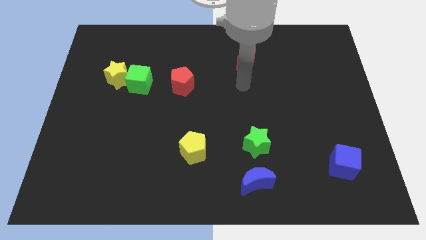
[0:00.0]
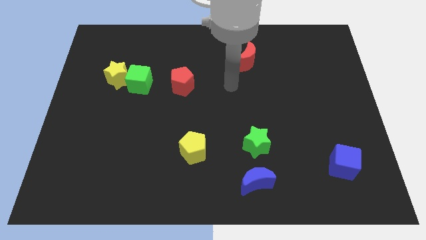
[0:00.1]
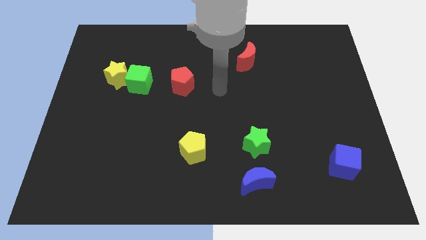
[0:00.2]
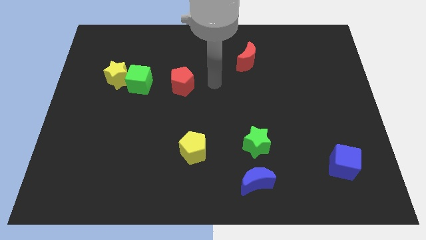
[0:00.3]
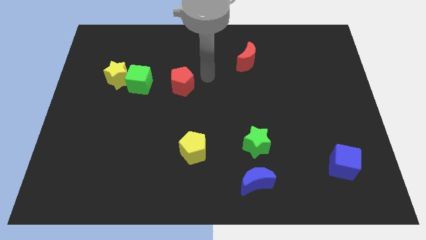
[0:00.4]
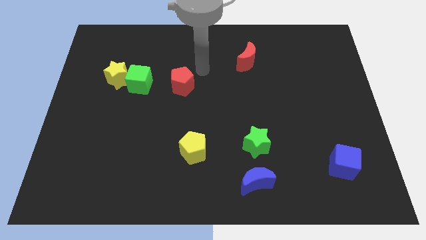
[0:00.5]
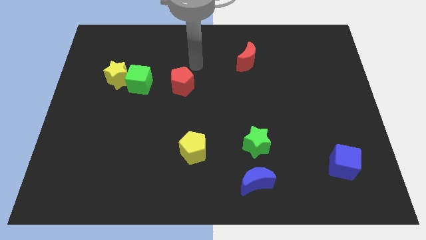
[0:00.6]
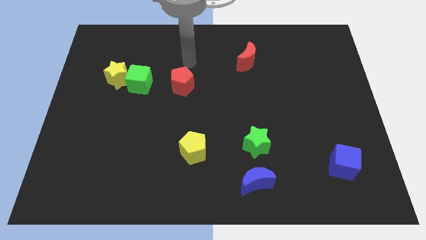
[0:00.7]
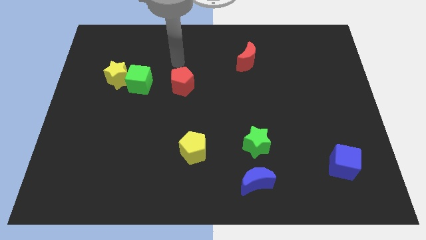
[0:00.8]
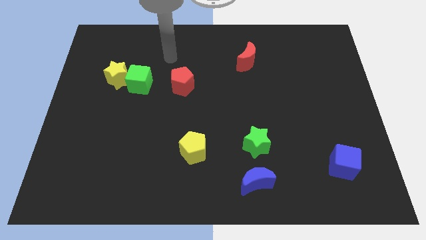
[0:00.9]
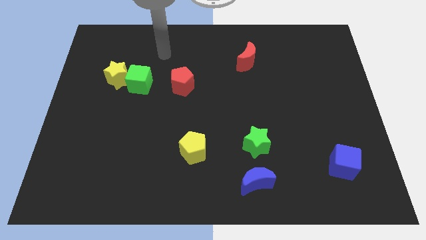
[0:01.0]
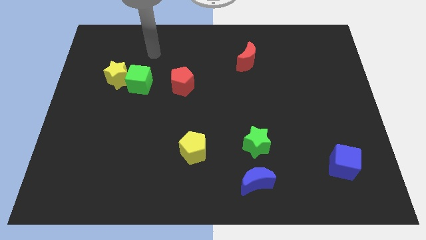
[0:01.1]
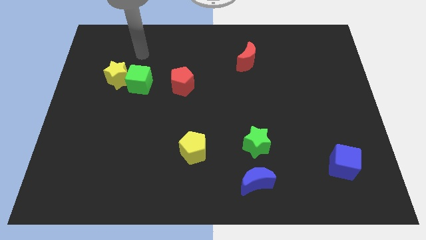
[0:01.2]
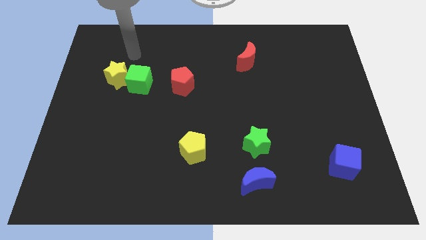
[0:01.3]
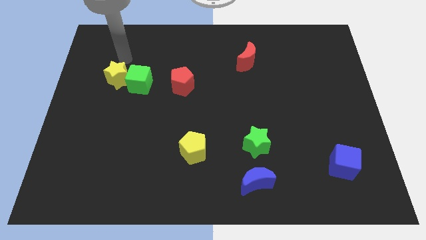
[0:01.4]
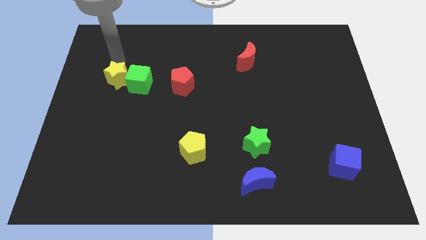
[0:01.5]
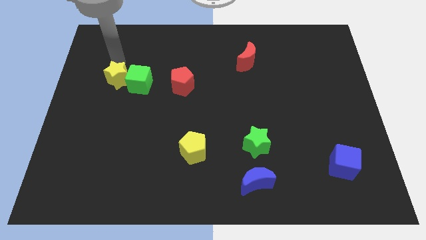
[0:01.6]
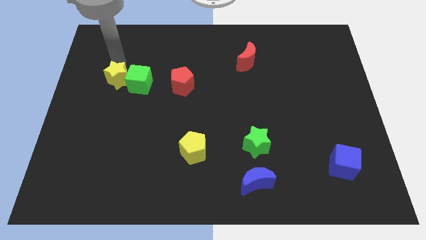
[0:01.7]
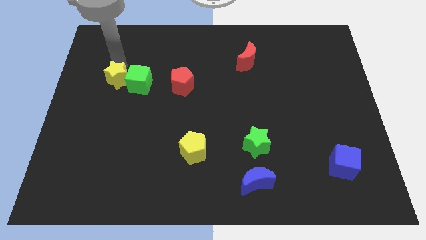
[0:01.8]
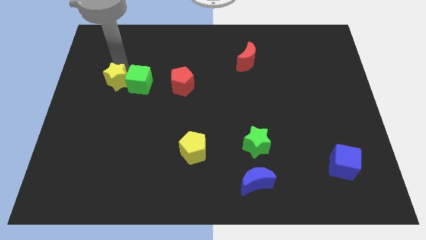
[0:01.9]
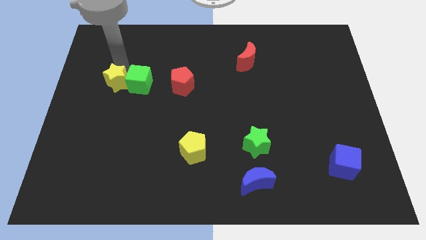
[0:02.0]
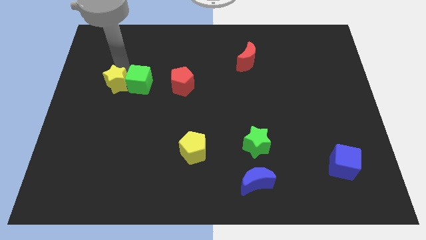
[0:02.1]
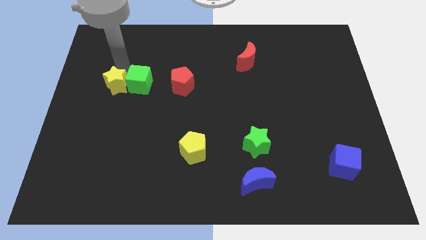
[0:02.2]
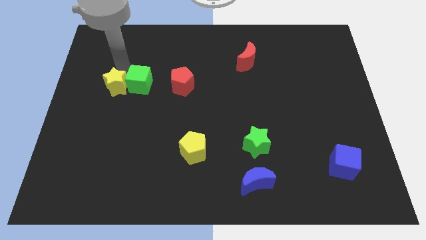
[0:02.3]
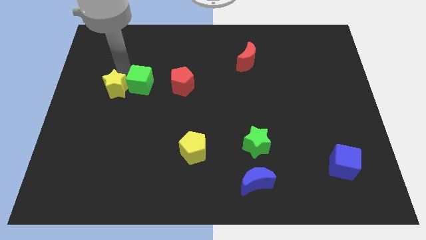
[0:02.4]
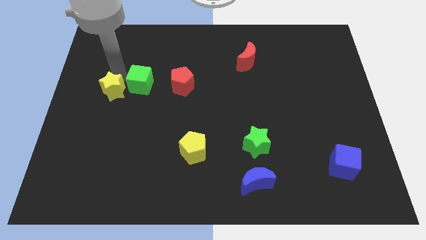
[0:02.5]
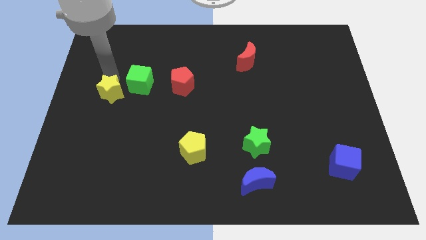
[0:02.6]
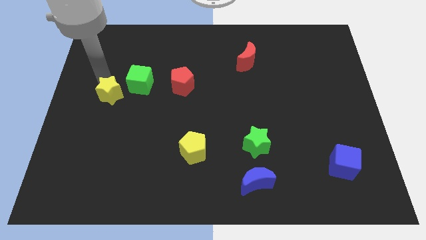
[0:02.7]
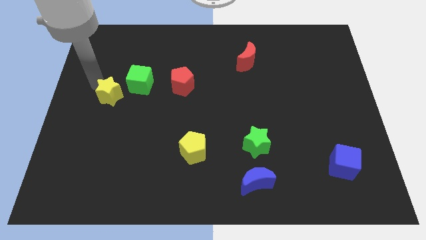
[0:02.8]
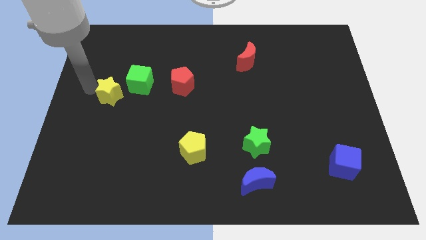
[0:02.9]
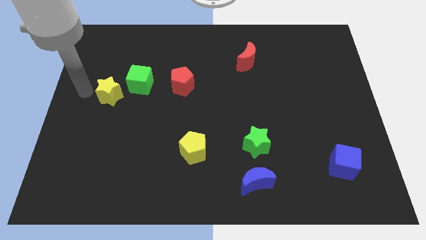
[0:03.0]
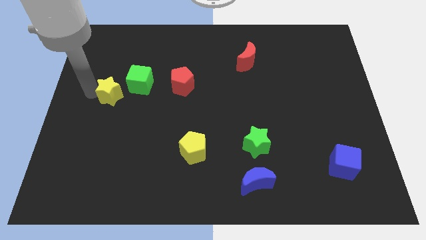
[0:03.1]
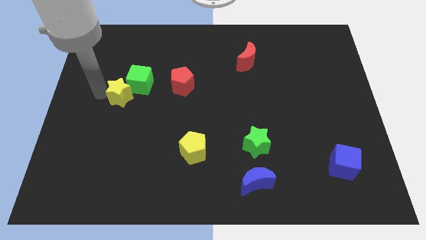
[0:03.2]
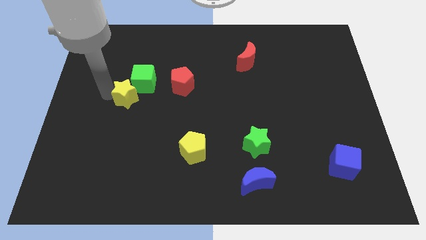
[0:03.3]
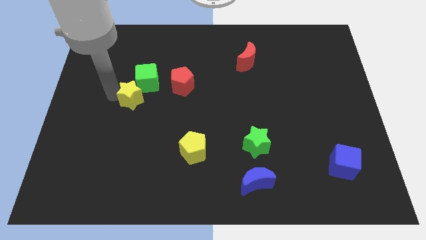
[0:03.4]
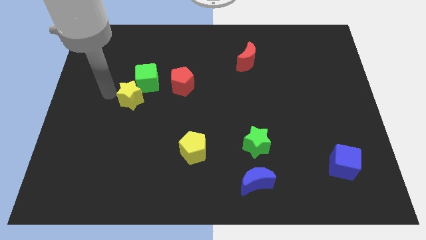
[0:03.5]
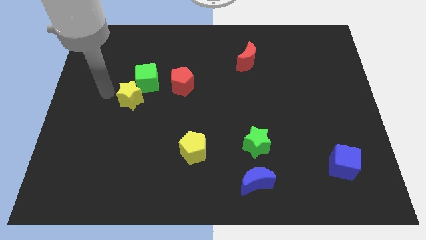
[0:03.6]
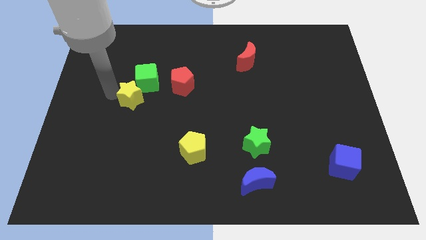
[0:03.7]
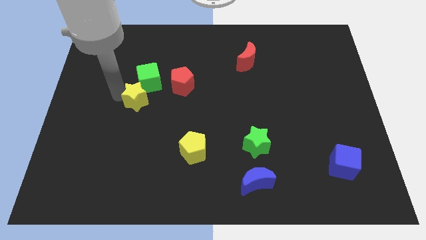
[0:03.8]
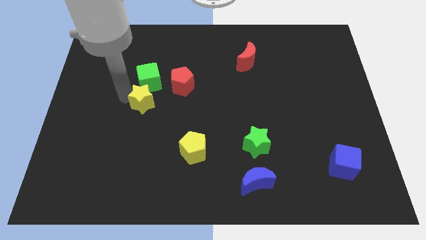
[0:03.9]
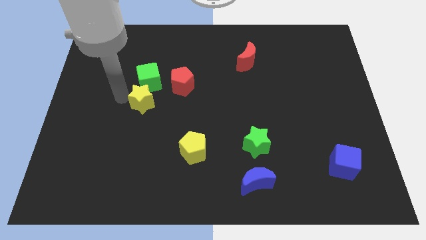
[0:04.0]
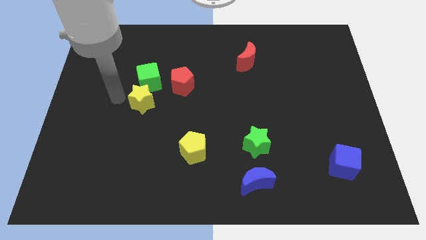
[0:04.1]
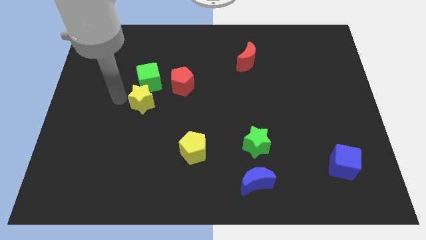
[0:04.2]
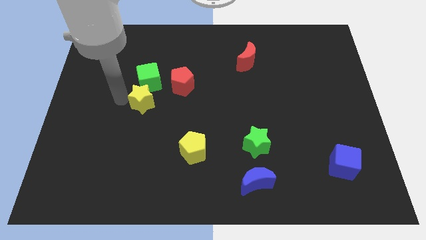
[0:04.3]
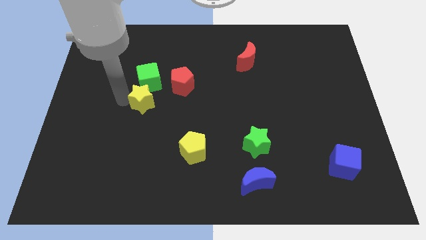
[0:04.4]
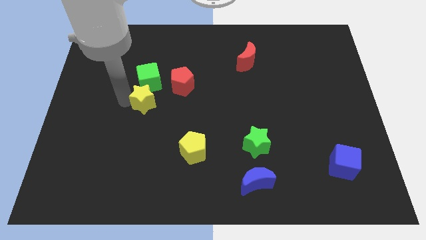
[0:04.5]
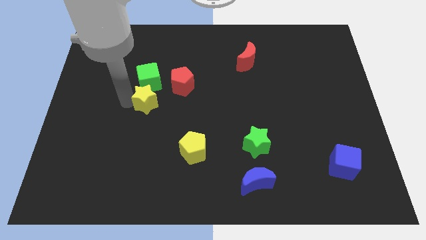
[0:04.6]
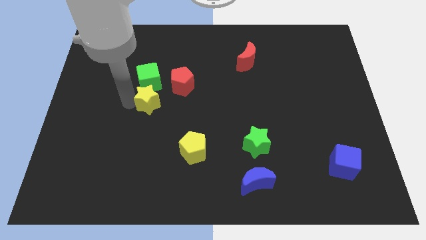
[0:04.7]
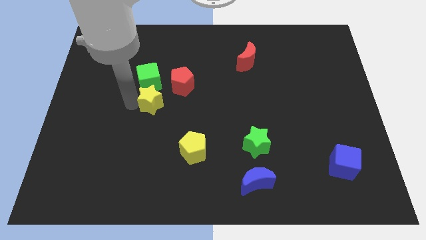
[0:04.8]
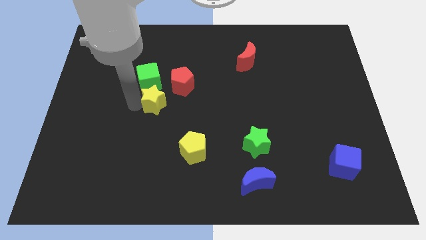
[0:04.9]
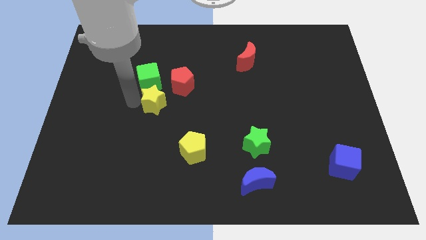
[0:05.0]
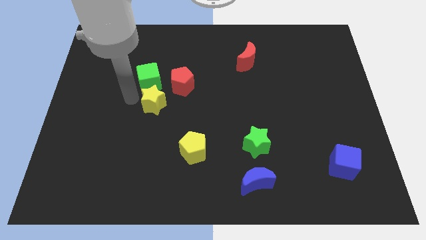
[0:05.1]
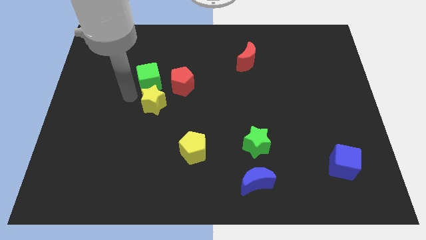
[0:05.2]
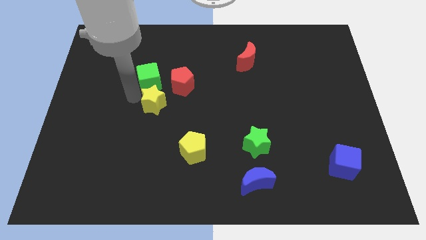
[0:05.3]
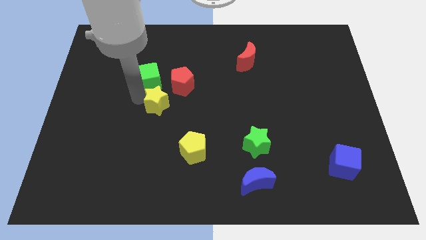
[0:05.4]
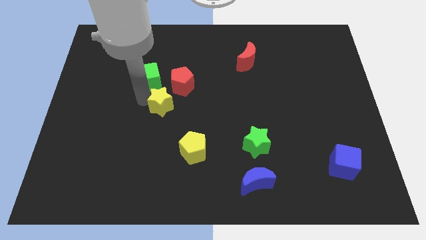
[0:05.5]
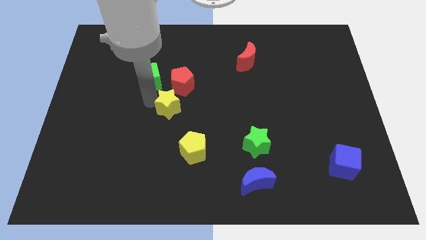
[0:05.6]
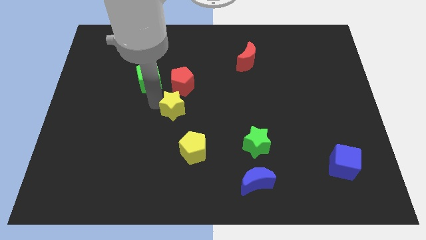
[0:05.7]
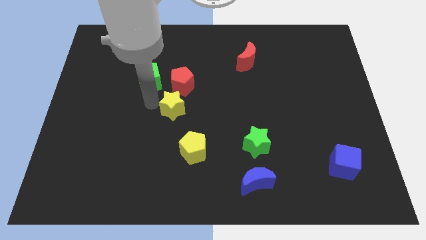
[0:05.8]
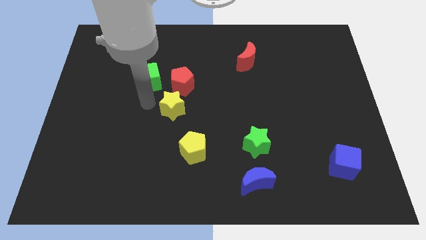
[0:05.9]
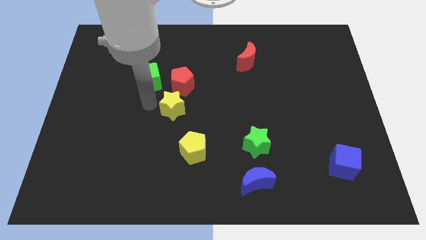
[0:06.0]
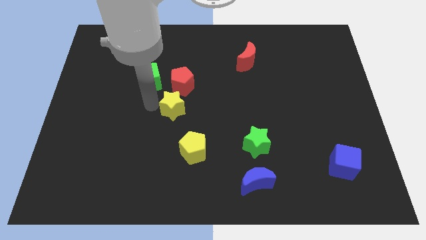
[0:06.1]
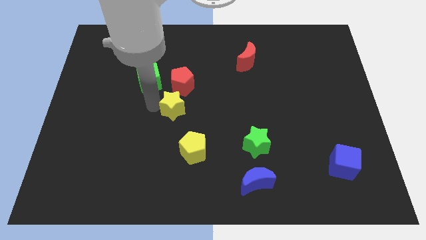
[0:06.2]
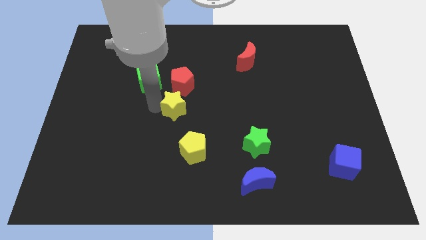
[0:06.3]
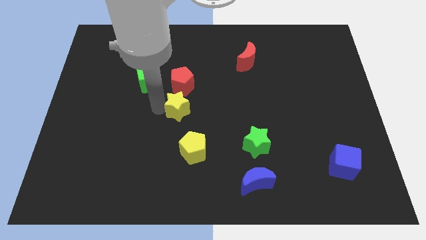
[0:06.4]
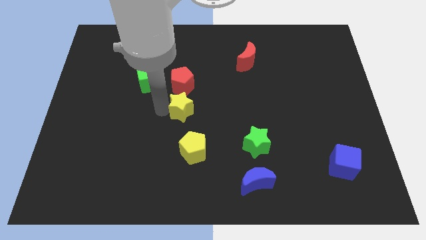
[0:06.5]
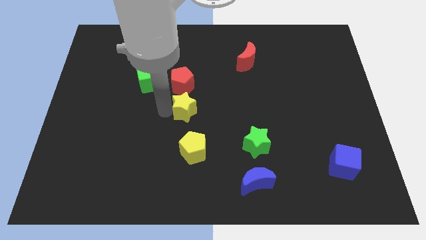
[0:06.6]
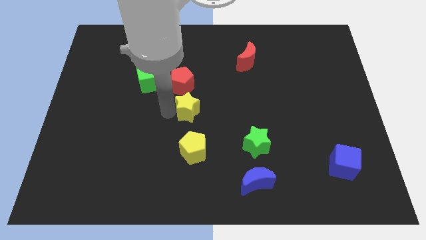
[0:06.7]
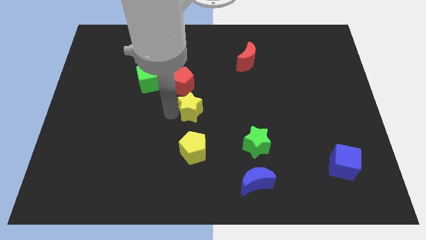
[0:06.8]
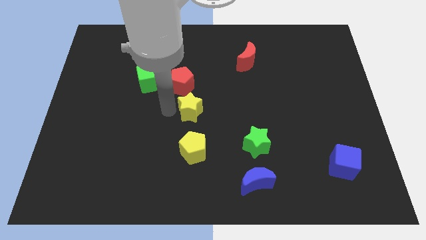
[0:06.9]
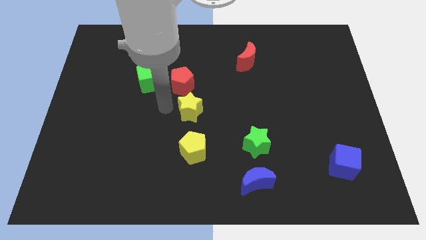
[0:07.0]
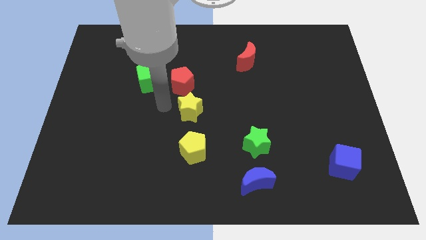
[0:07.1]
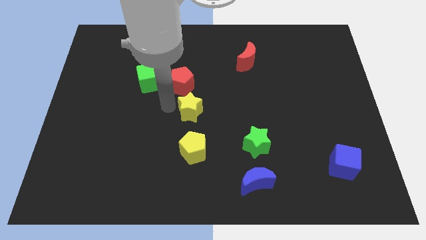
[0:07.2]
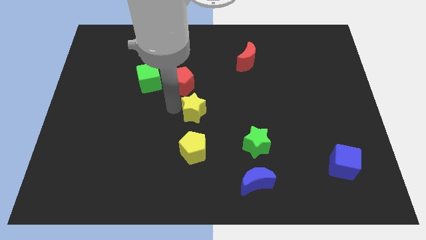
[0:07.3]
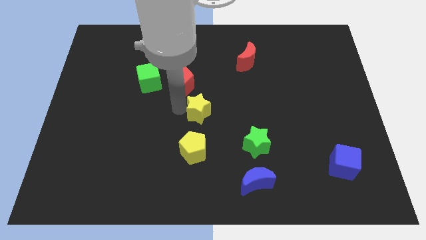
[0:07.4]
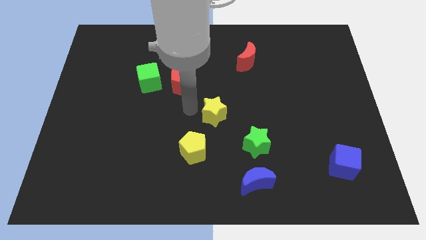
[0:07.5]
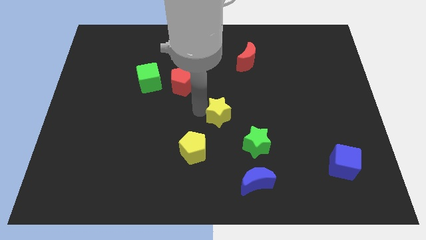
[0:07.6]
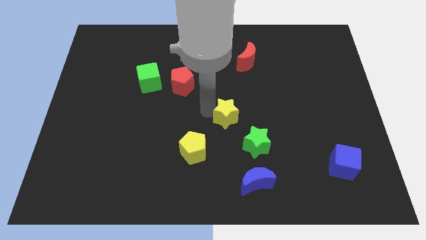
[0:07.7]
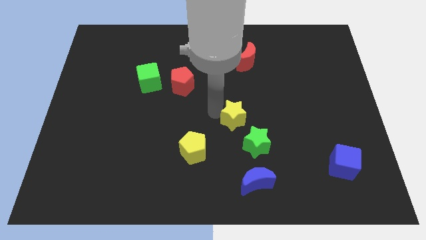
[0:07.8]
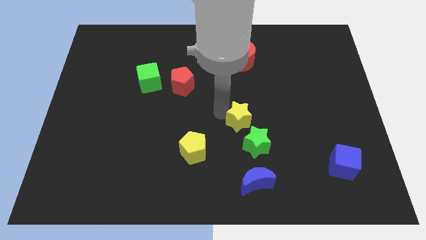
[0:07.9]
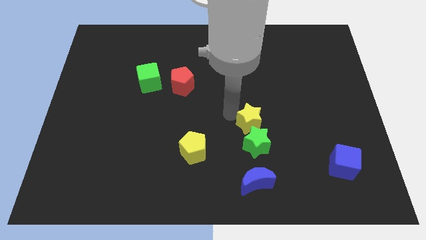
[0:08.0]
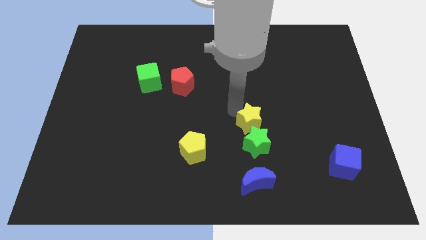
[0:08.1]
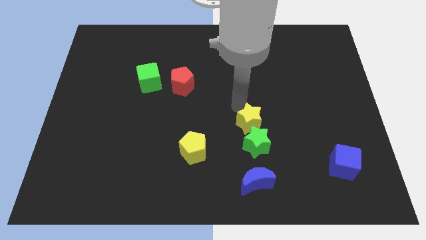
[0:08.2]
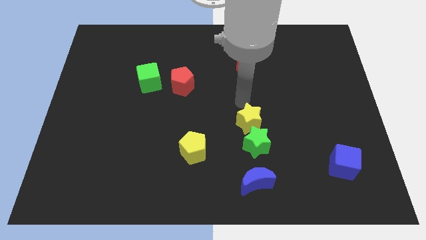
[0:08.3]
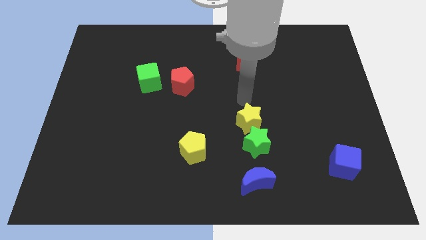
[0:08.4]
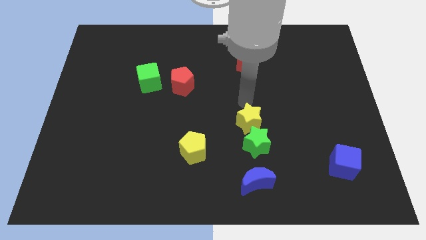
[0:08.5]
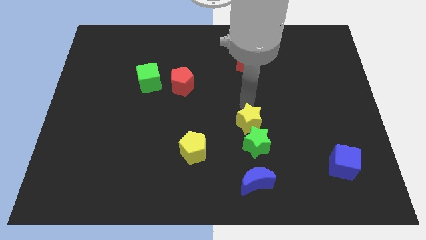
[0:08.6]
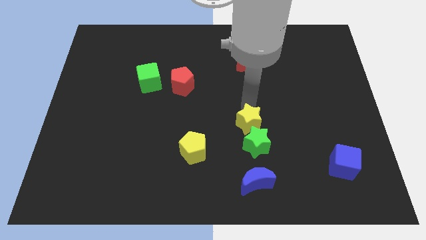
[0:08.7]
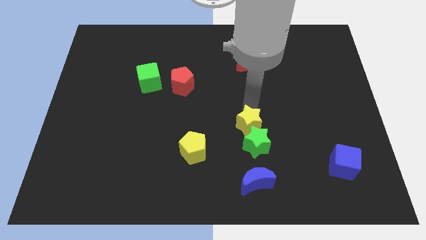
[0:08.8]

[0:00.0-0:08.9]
move the yellow star towards the green star
